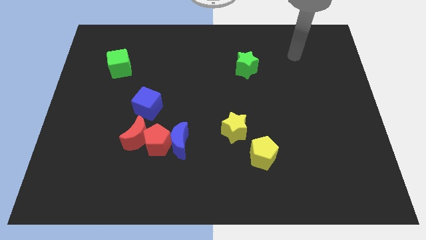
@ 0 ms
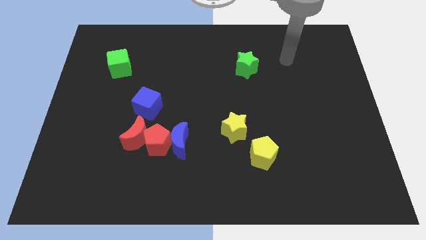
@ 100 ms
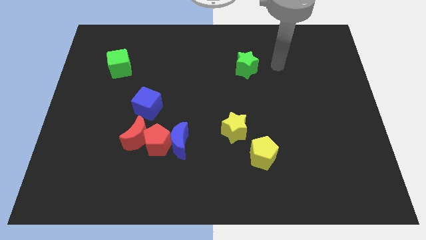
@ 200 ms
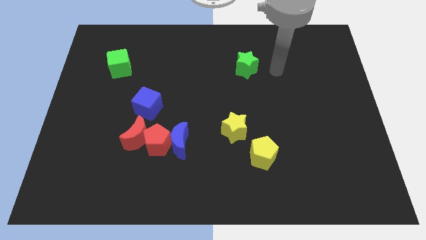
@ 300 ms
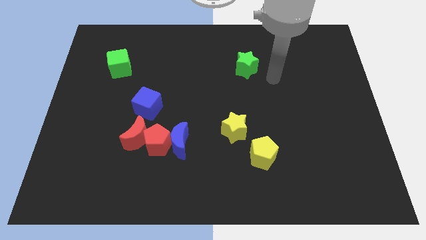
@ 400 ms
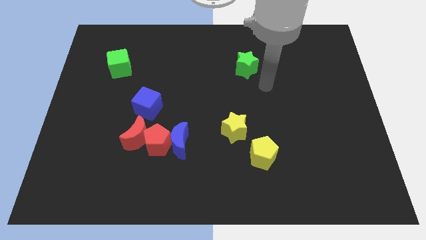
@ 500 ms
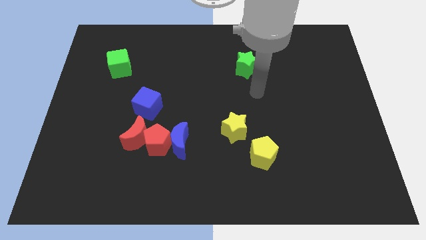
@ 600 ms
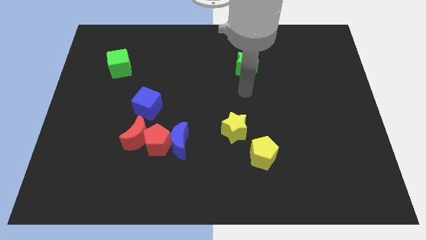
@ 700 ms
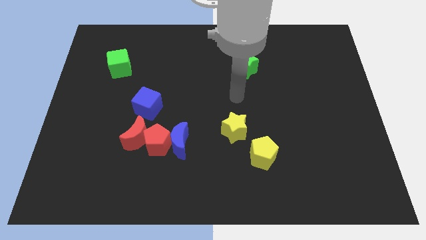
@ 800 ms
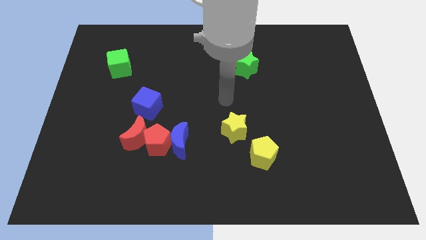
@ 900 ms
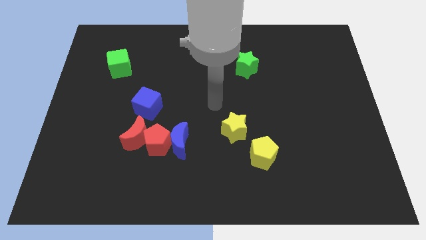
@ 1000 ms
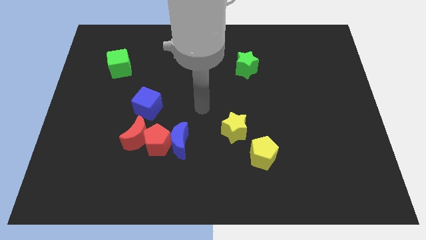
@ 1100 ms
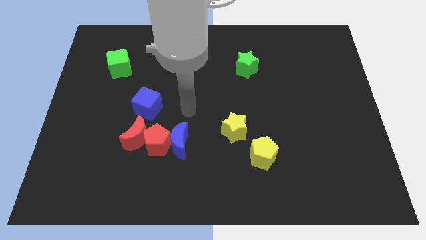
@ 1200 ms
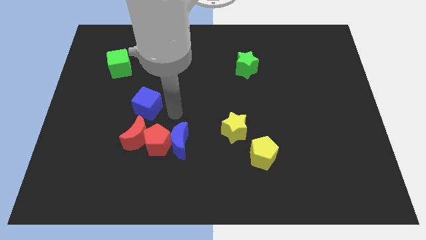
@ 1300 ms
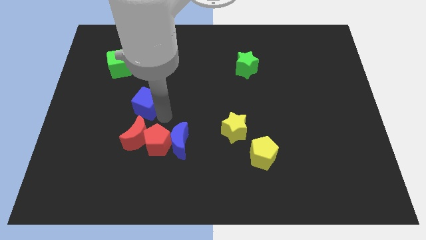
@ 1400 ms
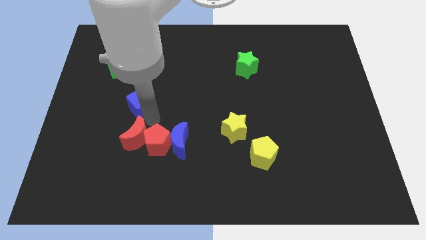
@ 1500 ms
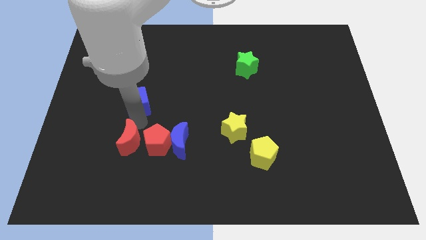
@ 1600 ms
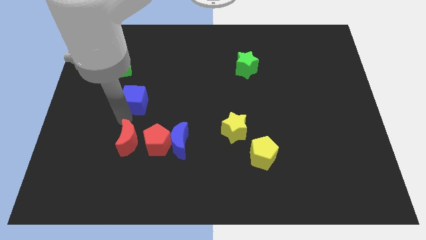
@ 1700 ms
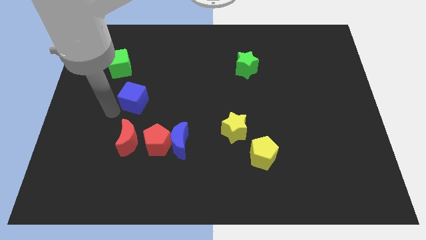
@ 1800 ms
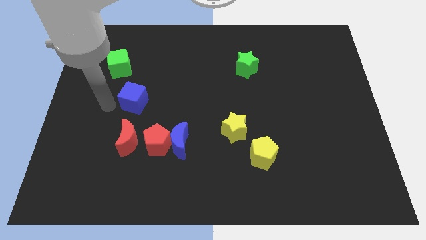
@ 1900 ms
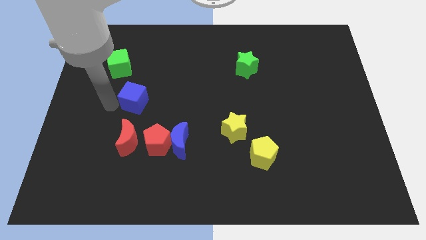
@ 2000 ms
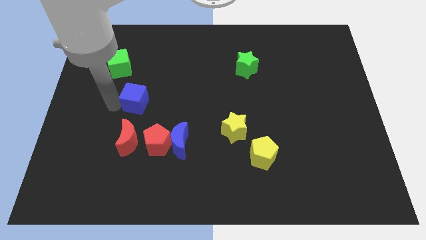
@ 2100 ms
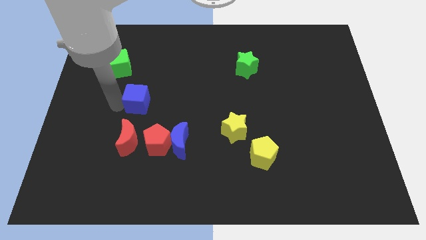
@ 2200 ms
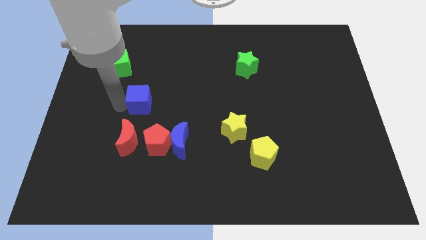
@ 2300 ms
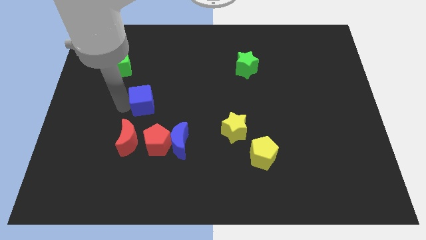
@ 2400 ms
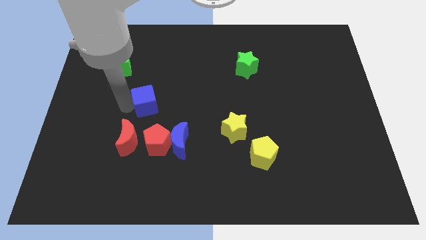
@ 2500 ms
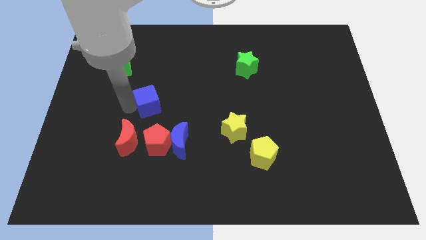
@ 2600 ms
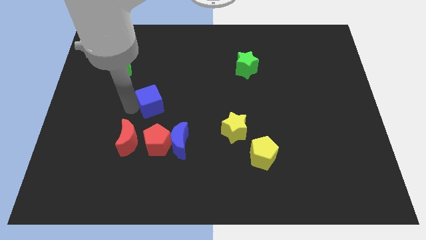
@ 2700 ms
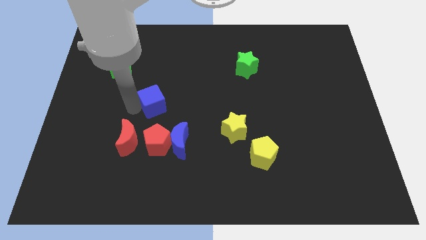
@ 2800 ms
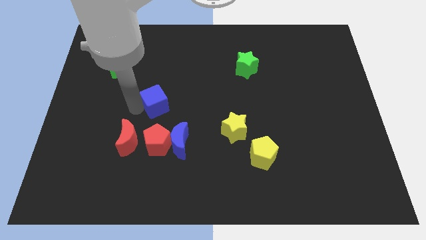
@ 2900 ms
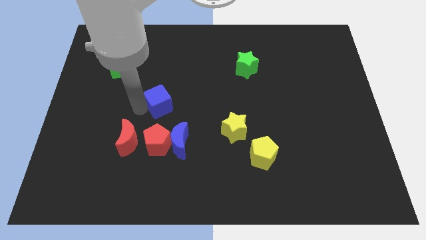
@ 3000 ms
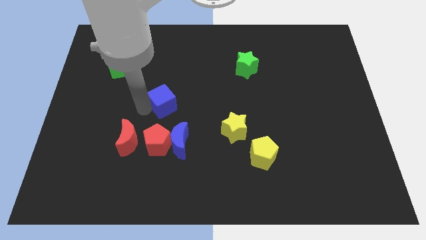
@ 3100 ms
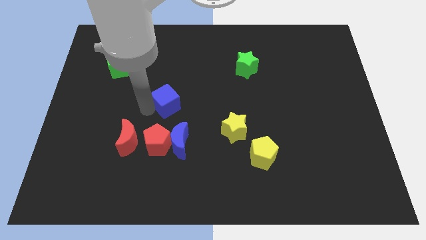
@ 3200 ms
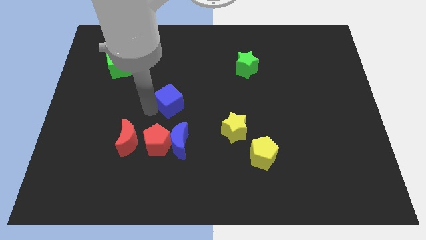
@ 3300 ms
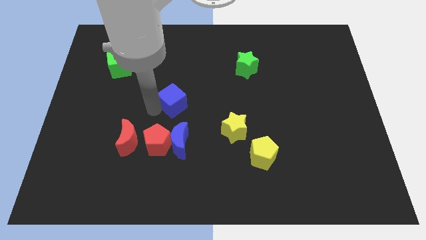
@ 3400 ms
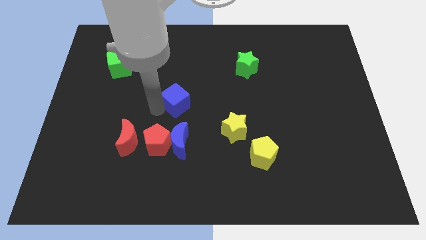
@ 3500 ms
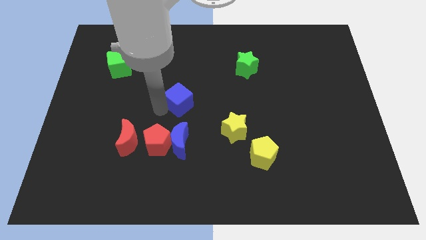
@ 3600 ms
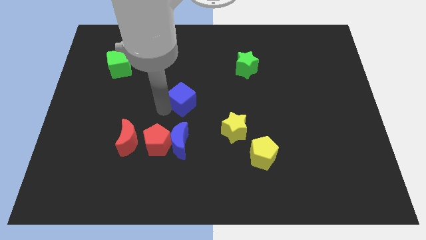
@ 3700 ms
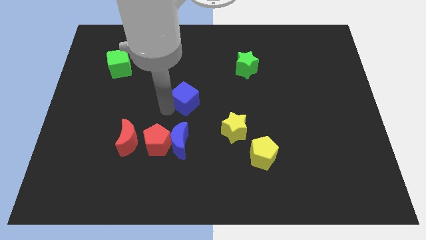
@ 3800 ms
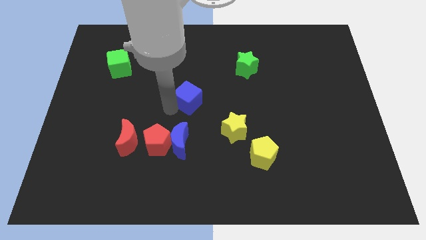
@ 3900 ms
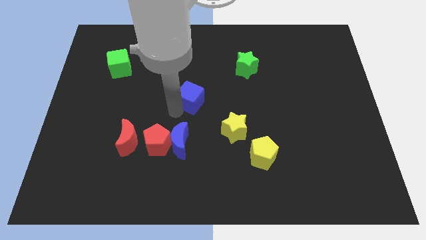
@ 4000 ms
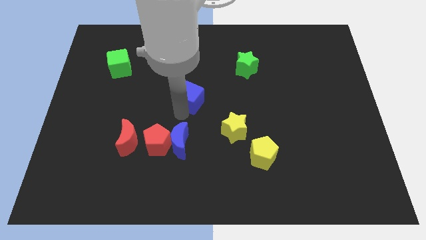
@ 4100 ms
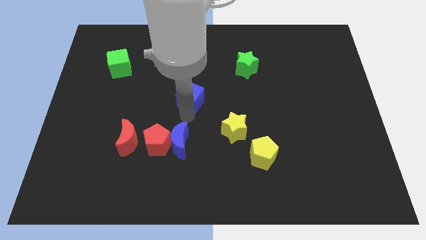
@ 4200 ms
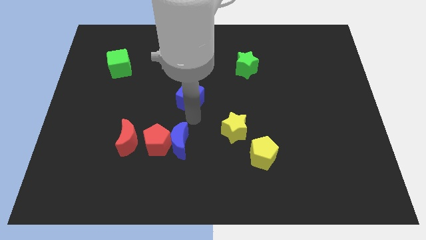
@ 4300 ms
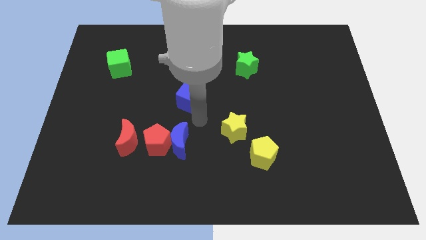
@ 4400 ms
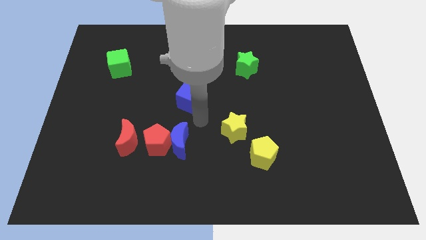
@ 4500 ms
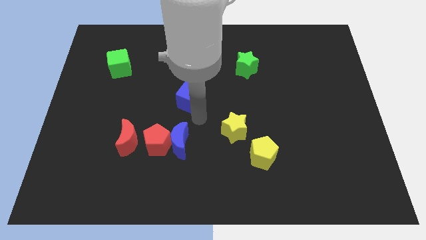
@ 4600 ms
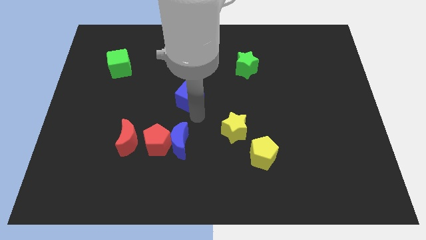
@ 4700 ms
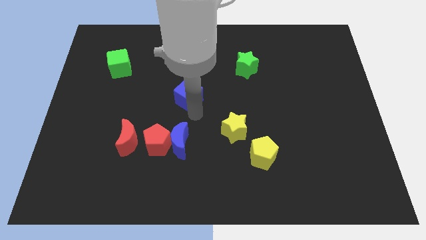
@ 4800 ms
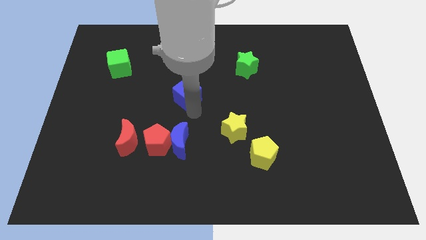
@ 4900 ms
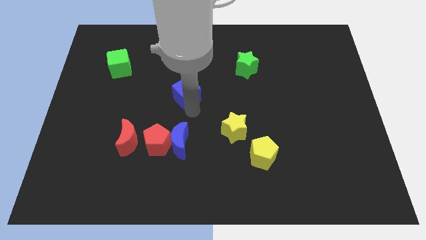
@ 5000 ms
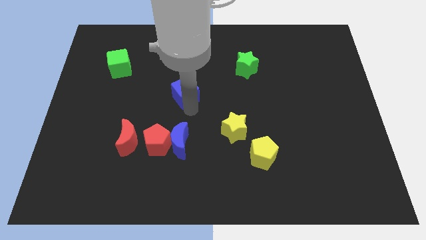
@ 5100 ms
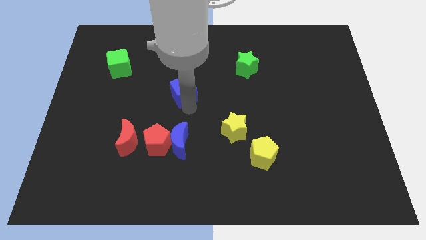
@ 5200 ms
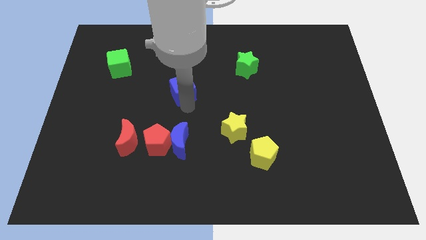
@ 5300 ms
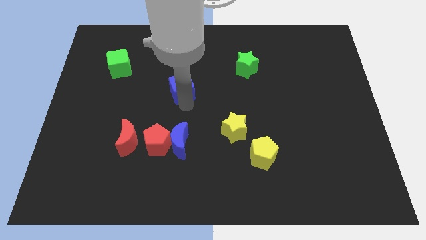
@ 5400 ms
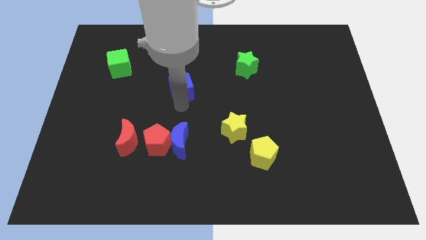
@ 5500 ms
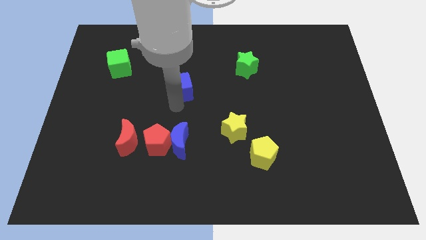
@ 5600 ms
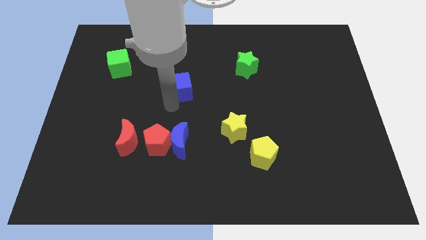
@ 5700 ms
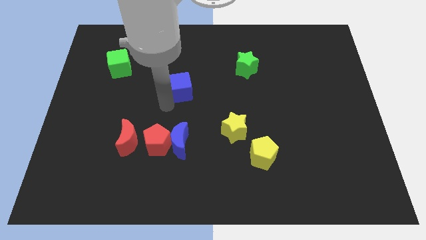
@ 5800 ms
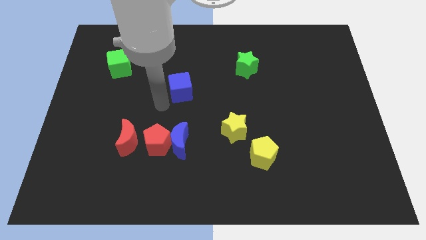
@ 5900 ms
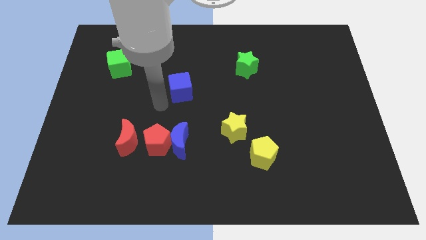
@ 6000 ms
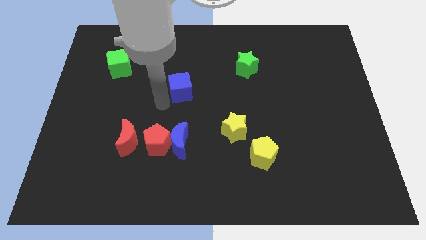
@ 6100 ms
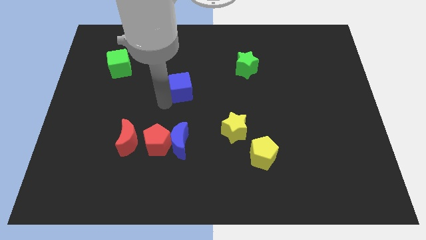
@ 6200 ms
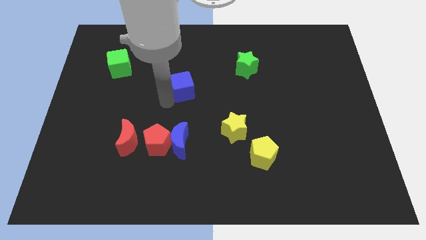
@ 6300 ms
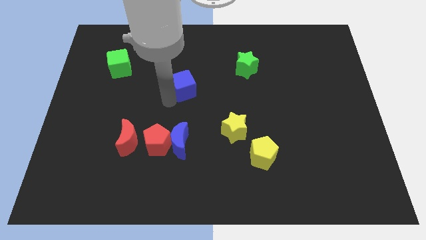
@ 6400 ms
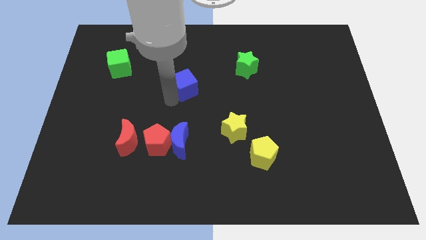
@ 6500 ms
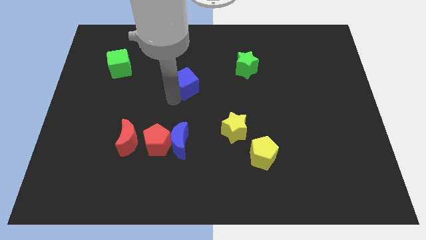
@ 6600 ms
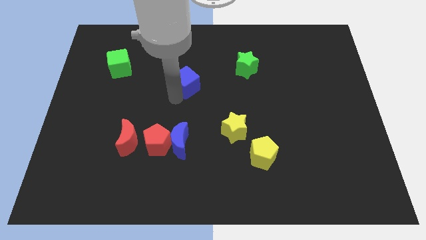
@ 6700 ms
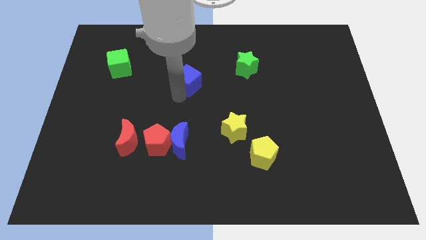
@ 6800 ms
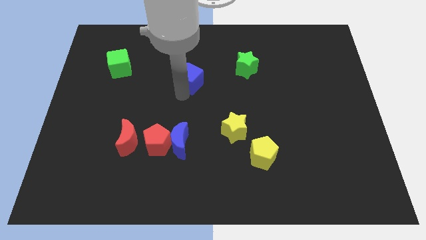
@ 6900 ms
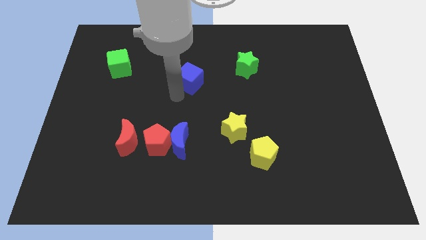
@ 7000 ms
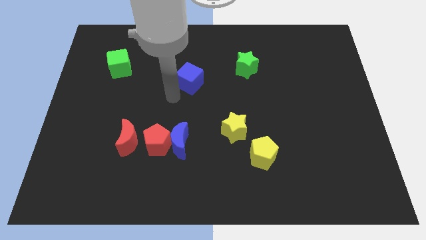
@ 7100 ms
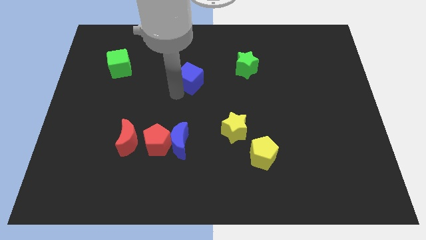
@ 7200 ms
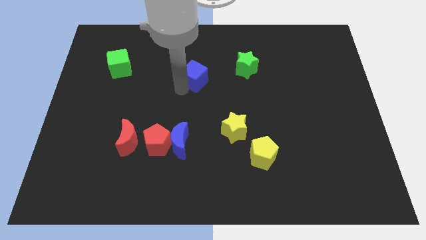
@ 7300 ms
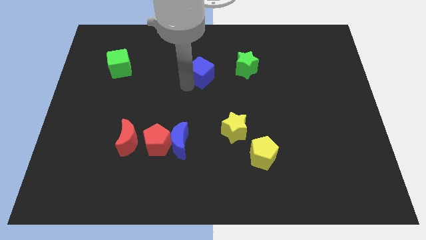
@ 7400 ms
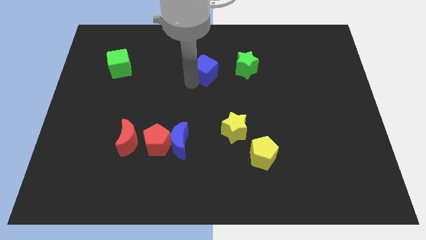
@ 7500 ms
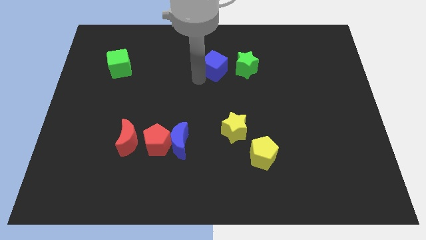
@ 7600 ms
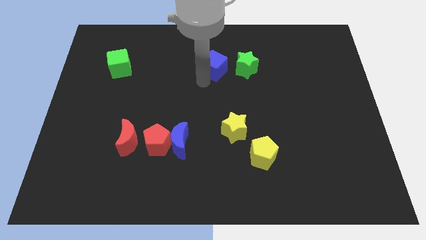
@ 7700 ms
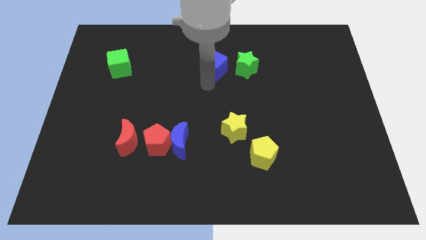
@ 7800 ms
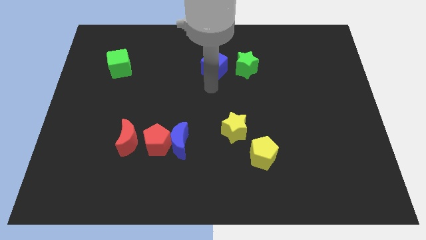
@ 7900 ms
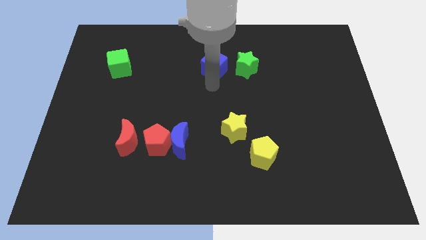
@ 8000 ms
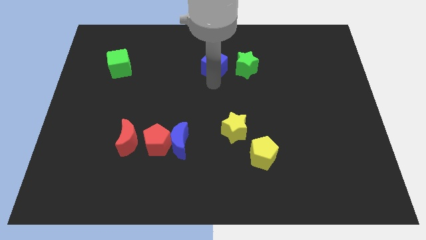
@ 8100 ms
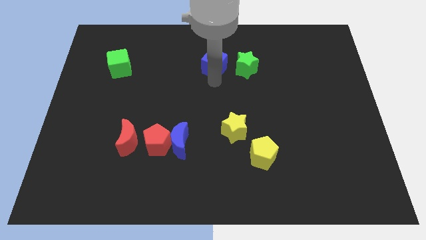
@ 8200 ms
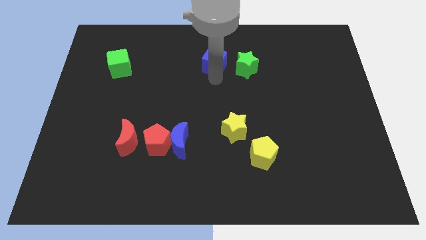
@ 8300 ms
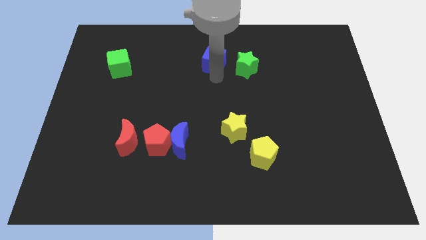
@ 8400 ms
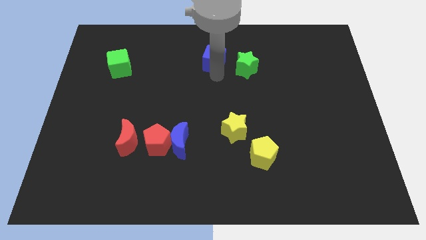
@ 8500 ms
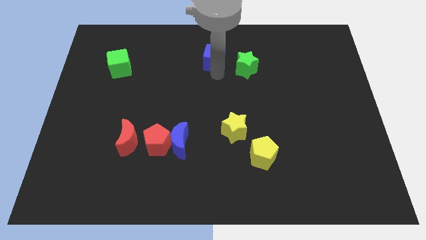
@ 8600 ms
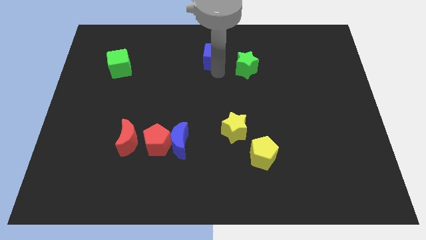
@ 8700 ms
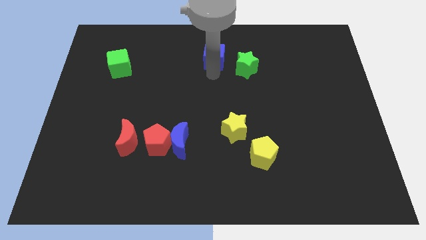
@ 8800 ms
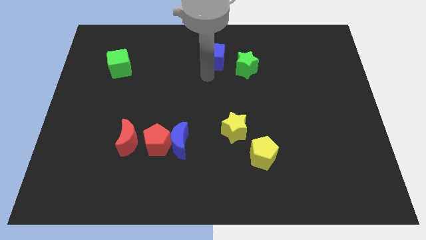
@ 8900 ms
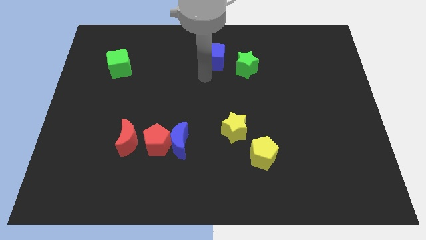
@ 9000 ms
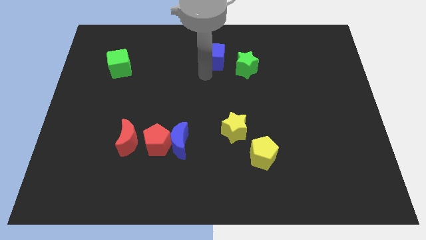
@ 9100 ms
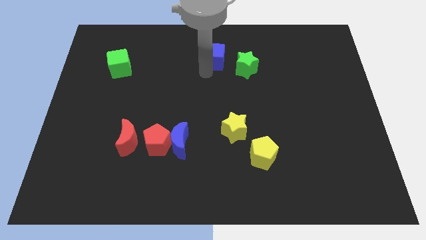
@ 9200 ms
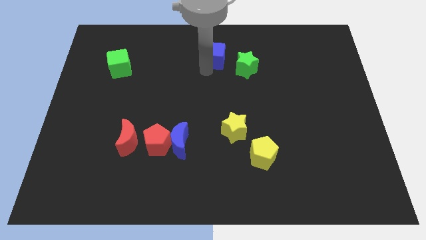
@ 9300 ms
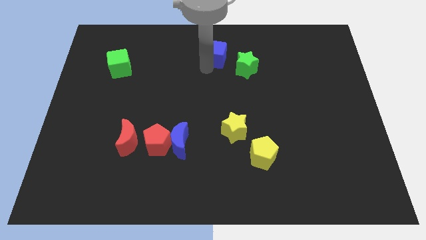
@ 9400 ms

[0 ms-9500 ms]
put the blue cube to the top
